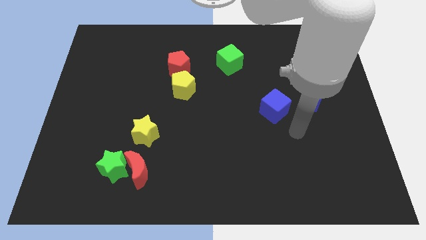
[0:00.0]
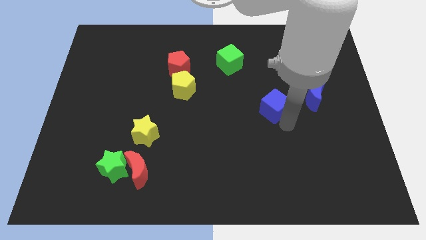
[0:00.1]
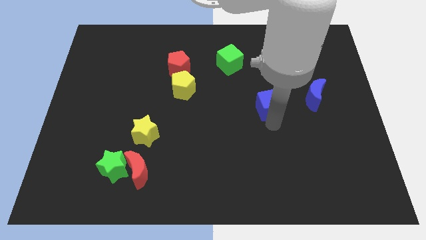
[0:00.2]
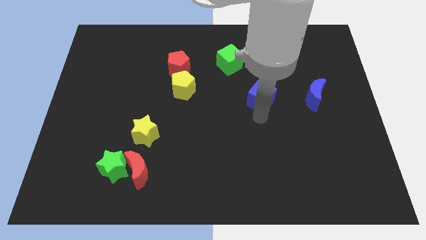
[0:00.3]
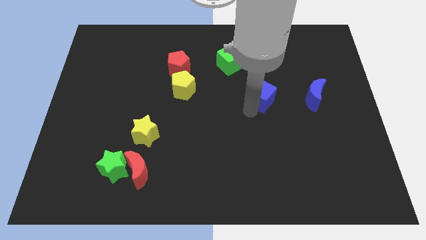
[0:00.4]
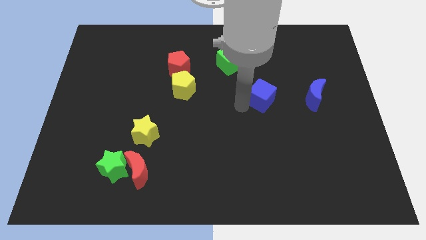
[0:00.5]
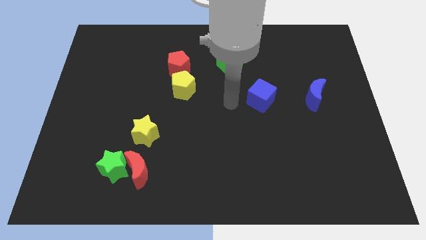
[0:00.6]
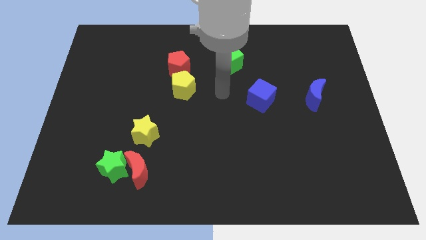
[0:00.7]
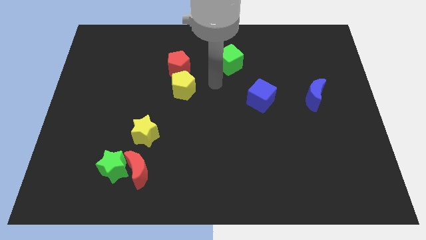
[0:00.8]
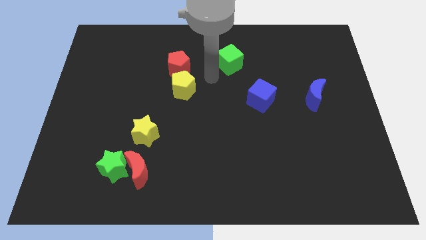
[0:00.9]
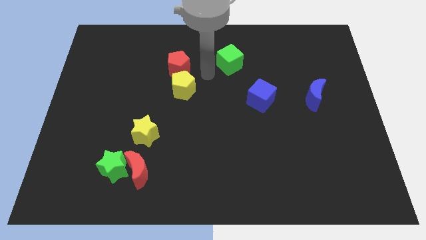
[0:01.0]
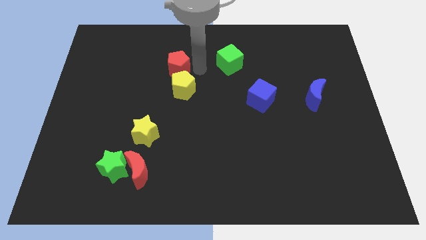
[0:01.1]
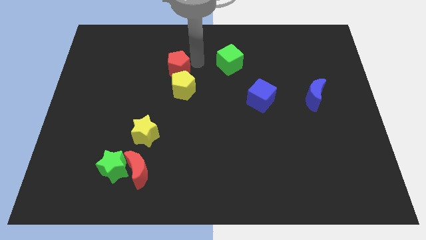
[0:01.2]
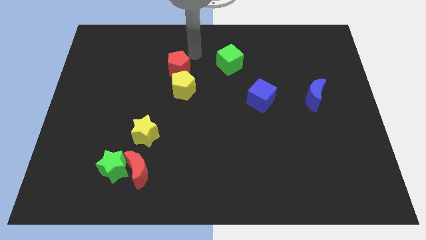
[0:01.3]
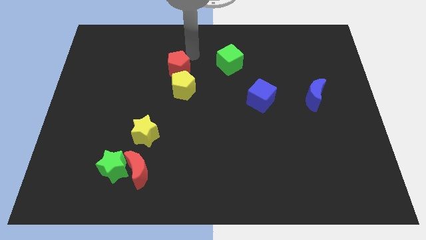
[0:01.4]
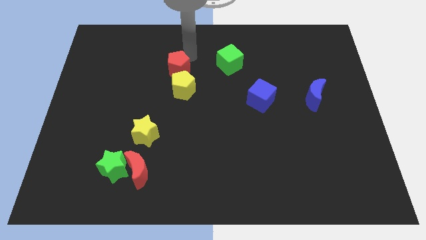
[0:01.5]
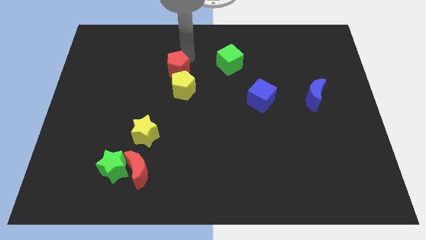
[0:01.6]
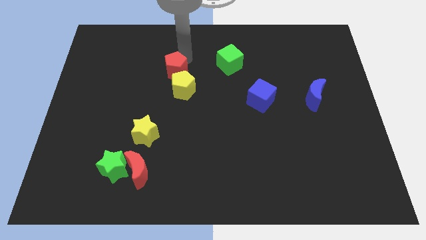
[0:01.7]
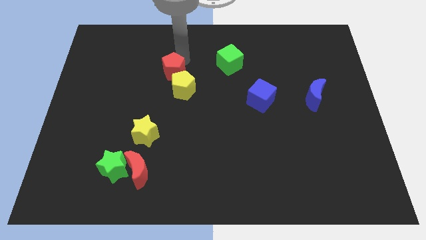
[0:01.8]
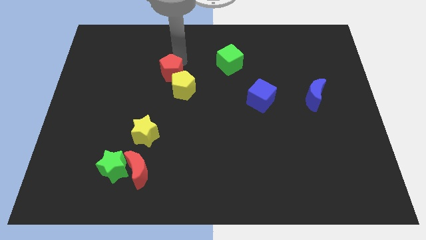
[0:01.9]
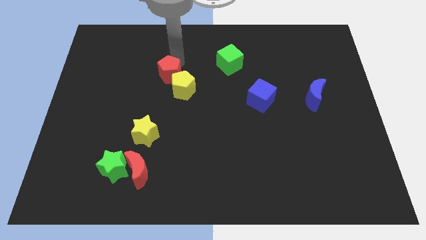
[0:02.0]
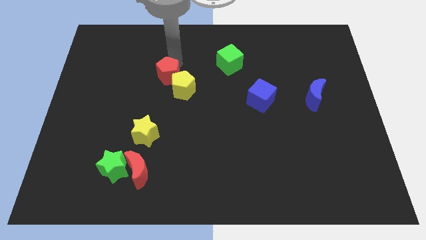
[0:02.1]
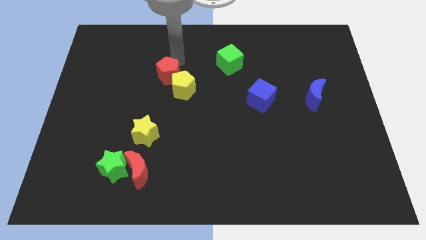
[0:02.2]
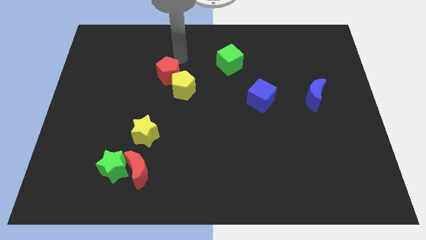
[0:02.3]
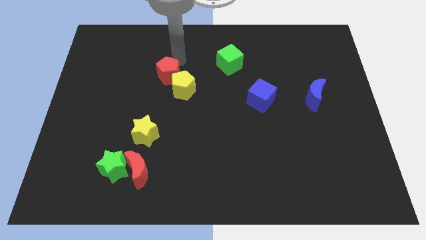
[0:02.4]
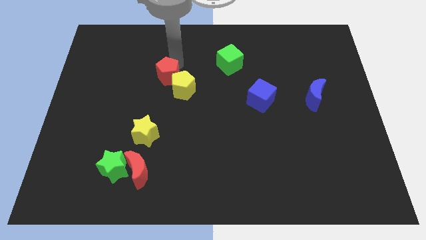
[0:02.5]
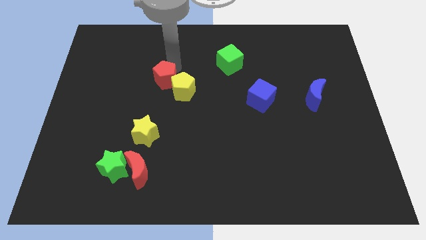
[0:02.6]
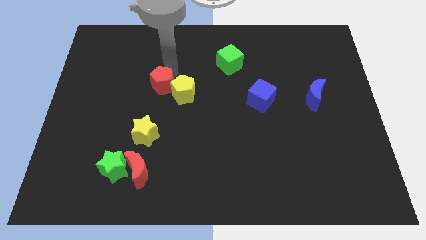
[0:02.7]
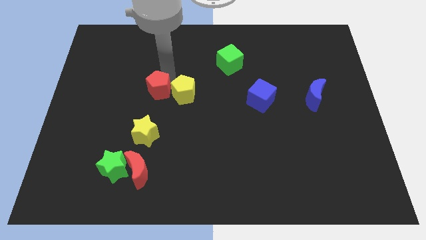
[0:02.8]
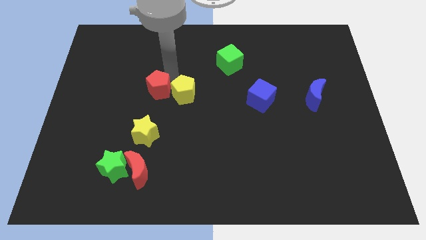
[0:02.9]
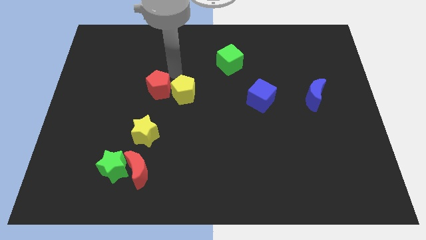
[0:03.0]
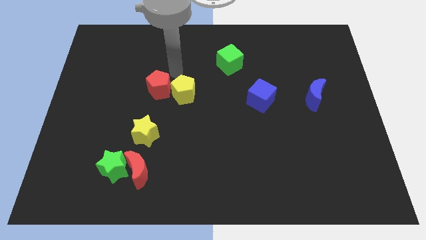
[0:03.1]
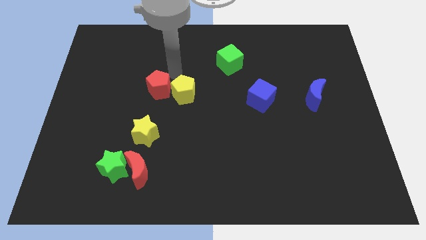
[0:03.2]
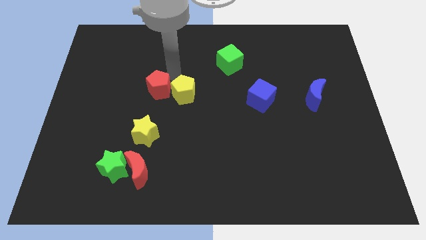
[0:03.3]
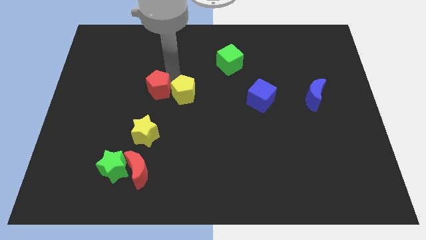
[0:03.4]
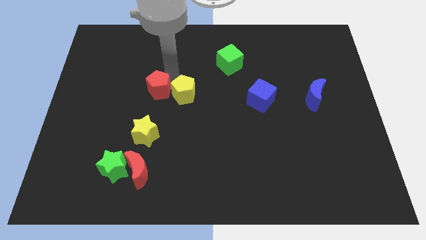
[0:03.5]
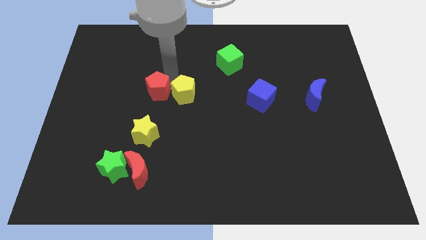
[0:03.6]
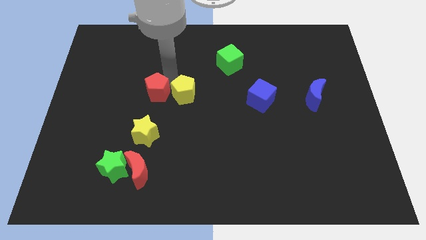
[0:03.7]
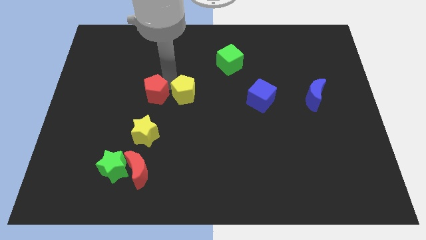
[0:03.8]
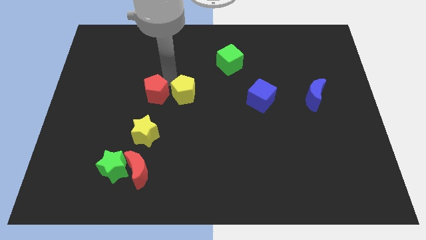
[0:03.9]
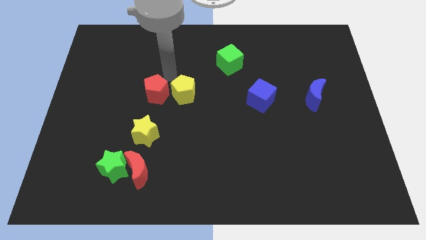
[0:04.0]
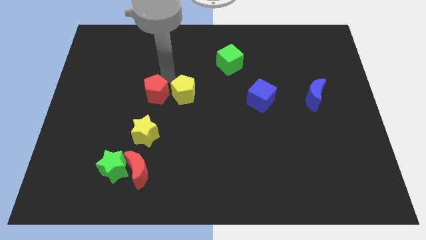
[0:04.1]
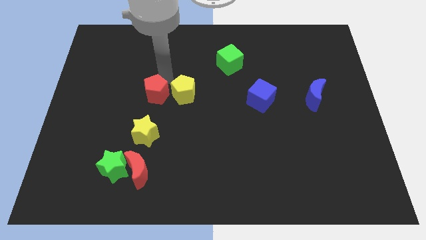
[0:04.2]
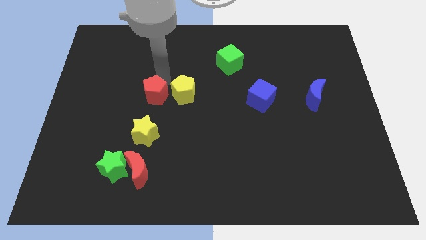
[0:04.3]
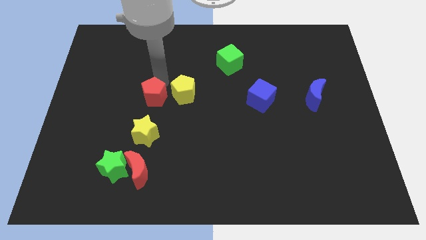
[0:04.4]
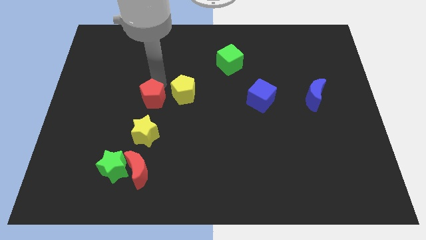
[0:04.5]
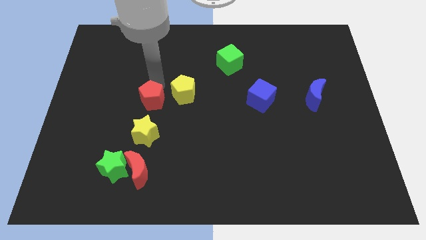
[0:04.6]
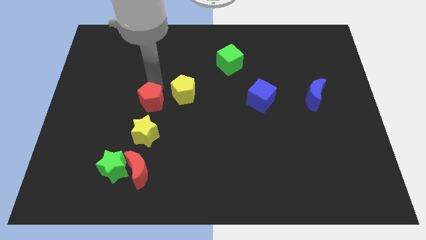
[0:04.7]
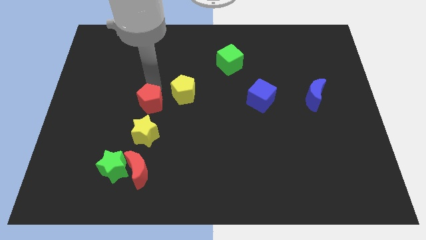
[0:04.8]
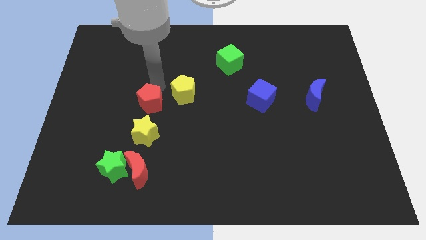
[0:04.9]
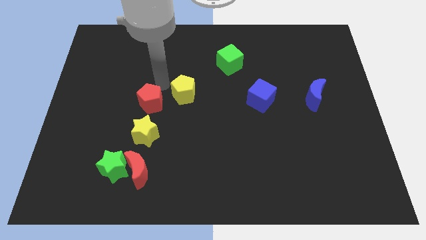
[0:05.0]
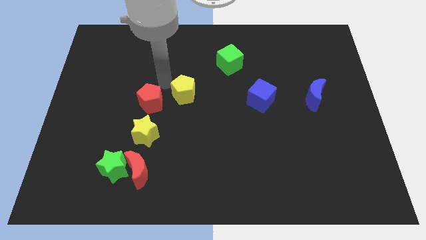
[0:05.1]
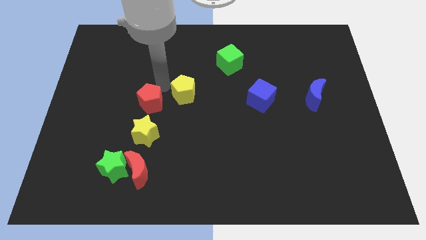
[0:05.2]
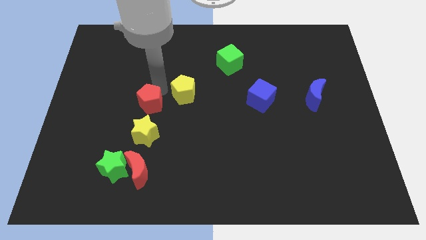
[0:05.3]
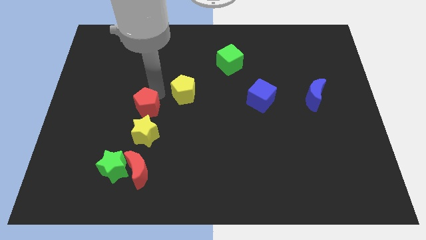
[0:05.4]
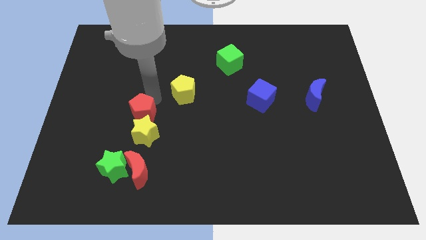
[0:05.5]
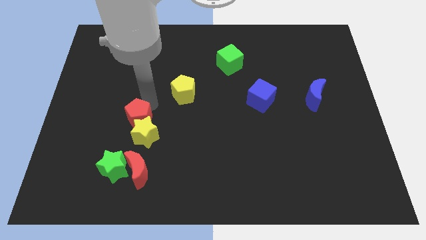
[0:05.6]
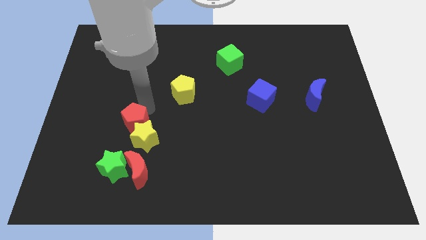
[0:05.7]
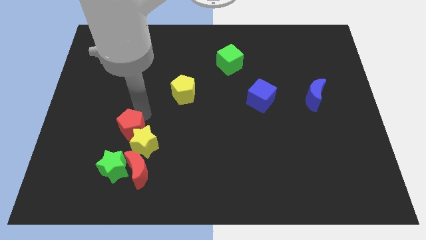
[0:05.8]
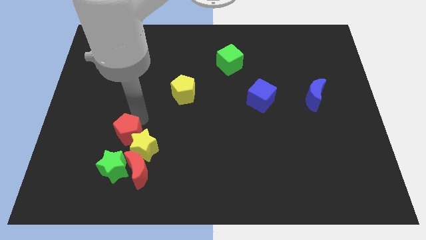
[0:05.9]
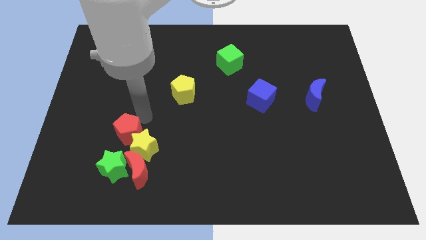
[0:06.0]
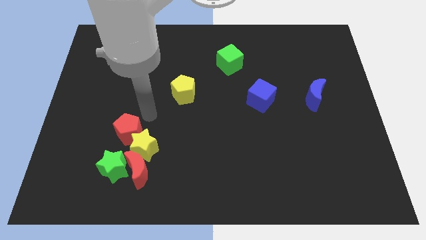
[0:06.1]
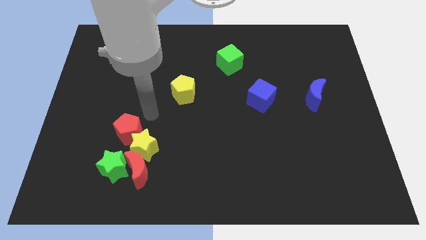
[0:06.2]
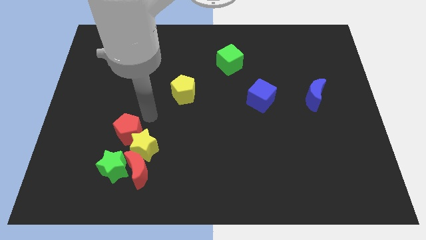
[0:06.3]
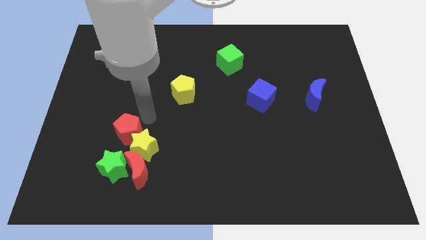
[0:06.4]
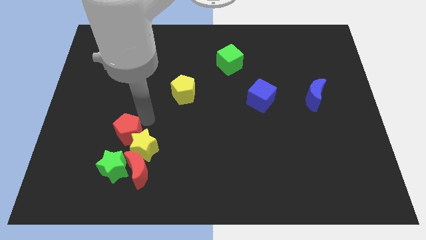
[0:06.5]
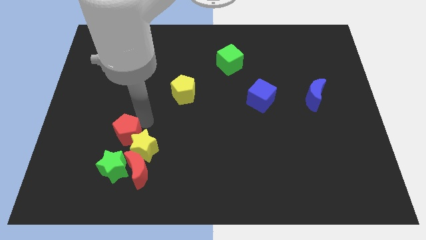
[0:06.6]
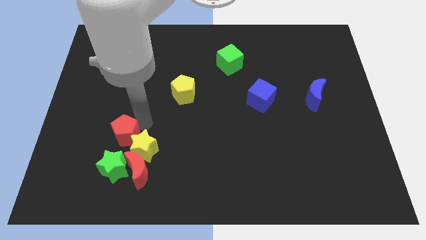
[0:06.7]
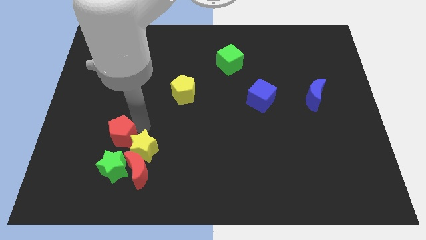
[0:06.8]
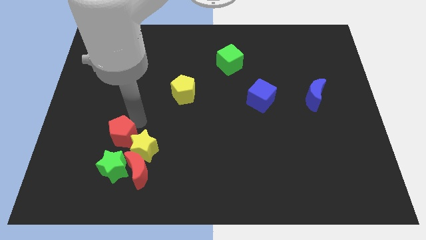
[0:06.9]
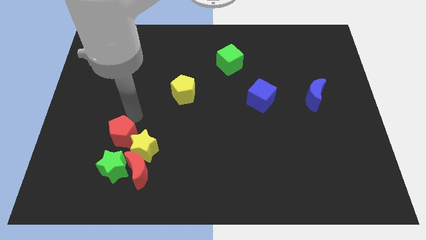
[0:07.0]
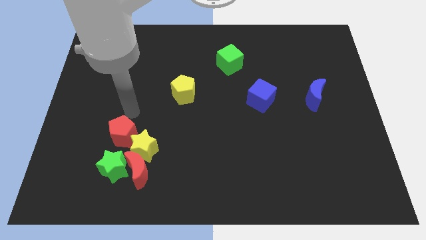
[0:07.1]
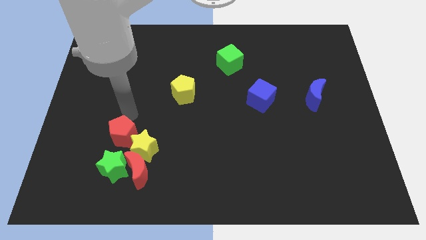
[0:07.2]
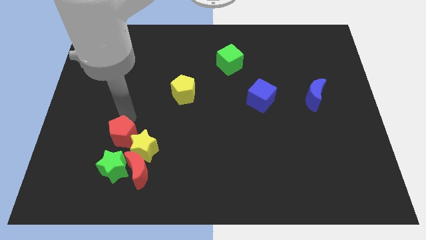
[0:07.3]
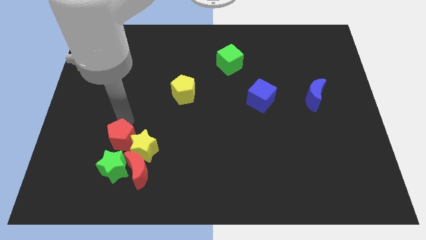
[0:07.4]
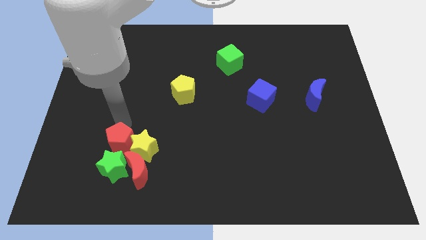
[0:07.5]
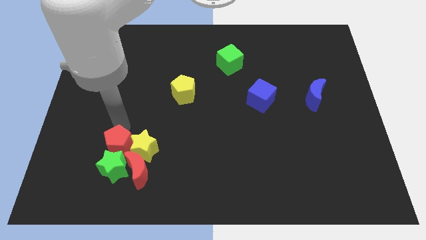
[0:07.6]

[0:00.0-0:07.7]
put the red pentagon next to the green star
